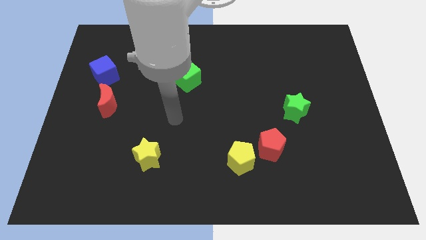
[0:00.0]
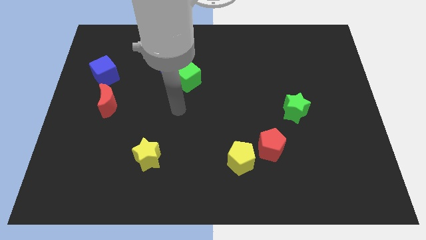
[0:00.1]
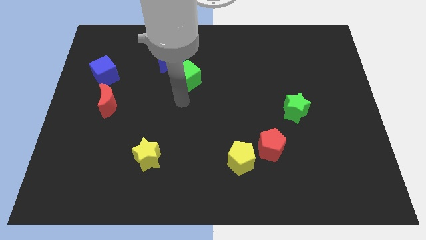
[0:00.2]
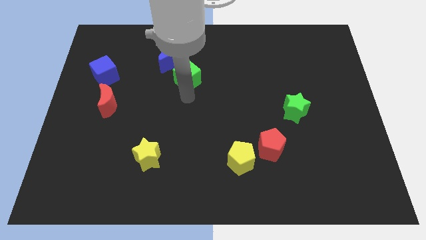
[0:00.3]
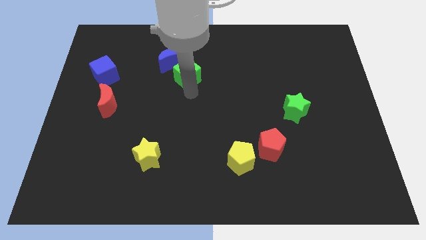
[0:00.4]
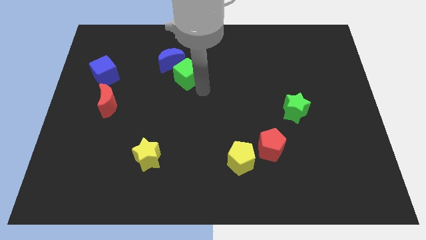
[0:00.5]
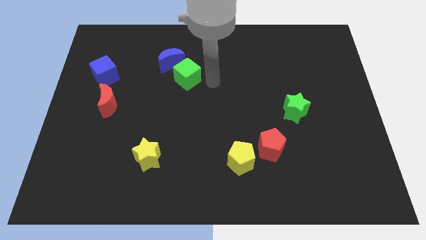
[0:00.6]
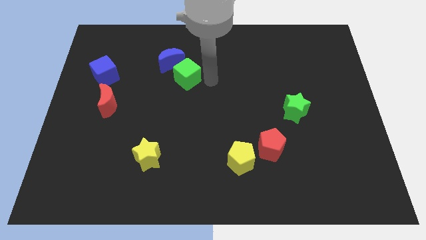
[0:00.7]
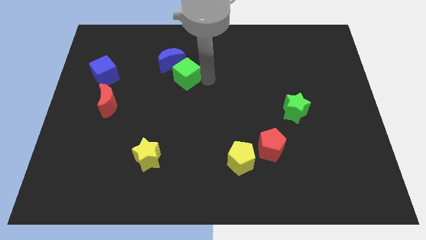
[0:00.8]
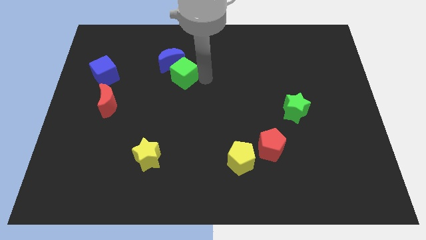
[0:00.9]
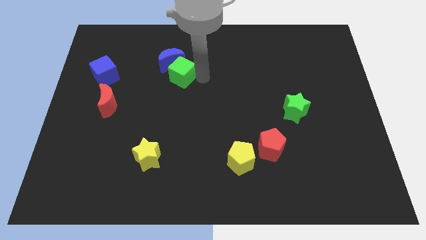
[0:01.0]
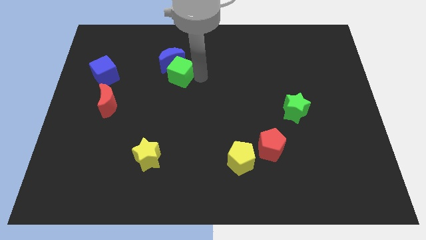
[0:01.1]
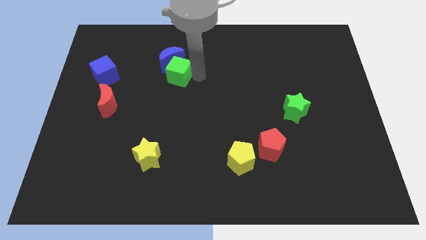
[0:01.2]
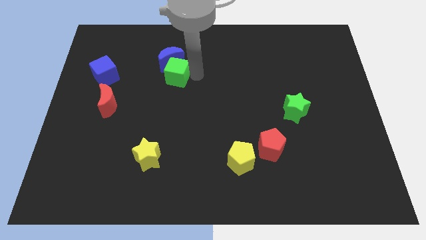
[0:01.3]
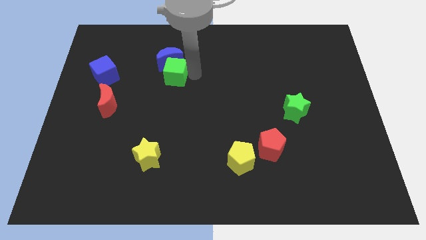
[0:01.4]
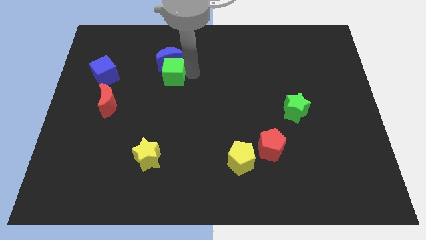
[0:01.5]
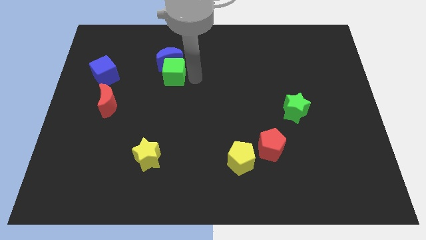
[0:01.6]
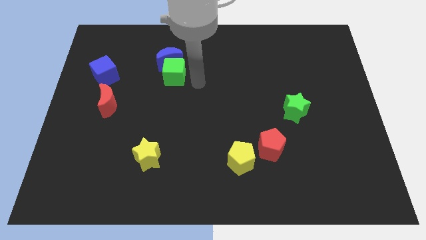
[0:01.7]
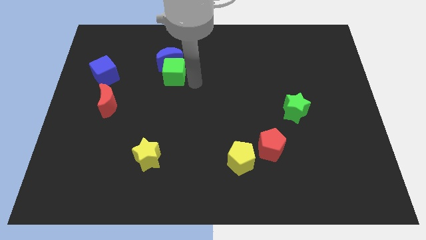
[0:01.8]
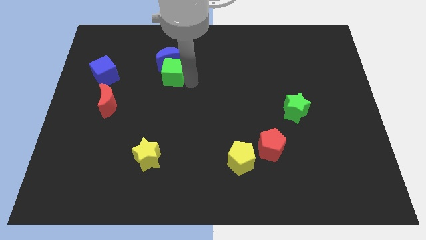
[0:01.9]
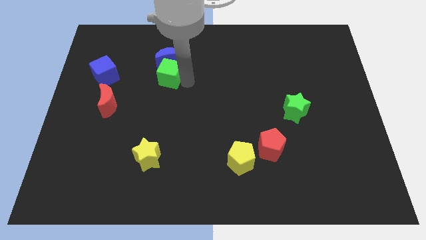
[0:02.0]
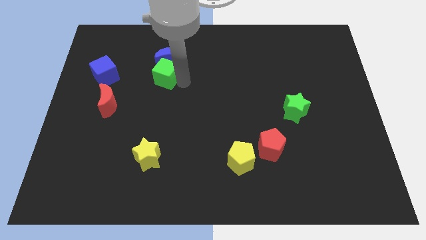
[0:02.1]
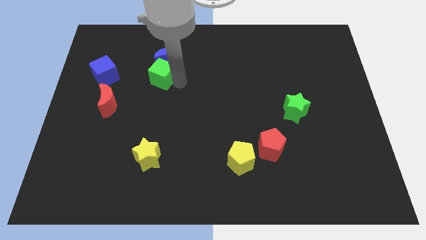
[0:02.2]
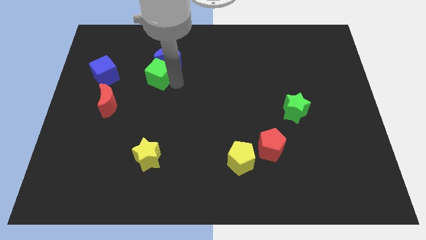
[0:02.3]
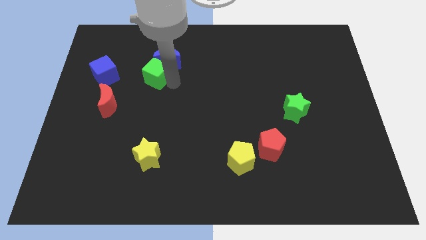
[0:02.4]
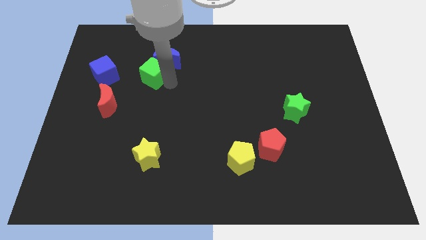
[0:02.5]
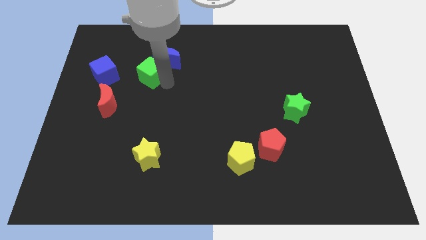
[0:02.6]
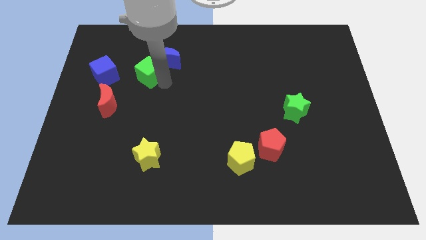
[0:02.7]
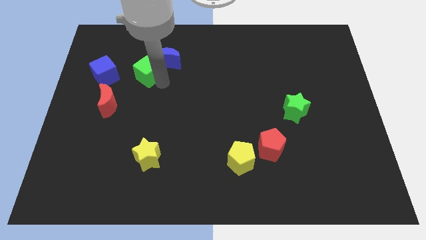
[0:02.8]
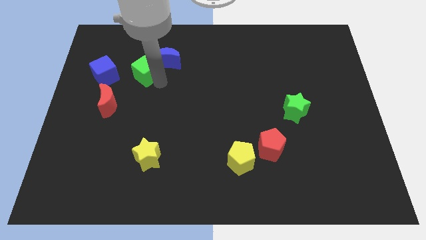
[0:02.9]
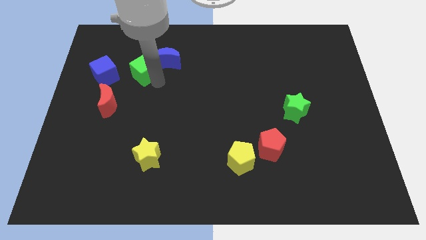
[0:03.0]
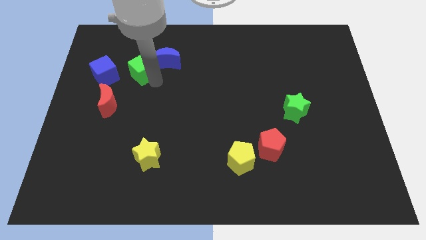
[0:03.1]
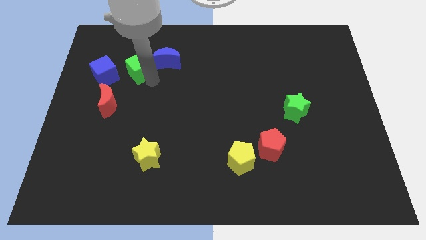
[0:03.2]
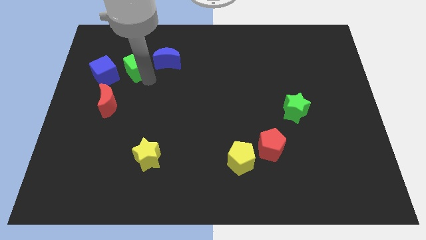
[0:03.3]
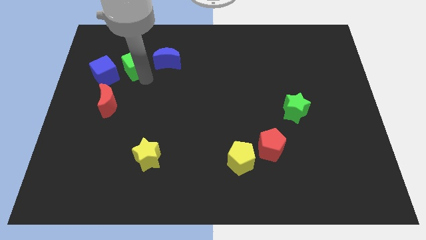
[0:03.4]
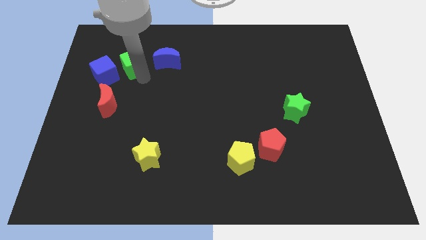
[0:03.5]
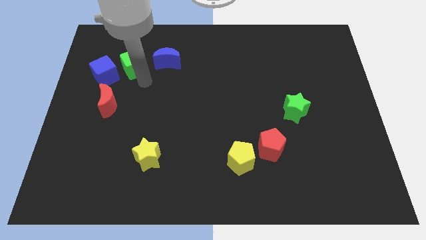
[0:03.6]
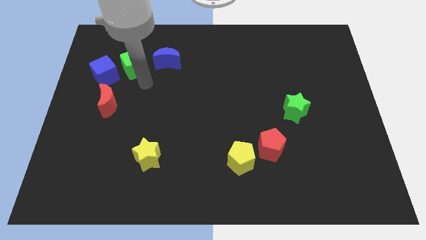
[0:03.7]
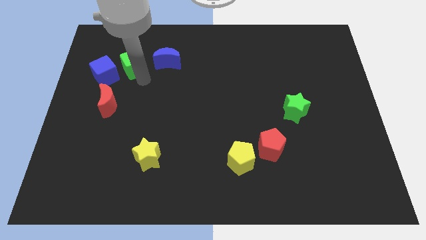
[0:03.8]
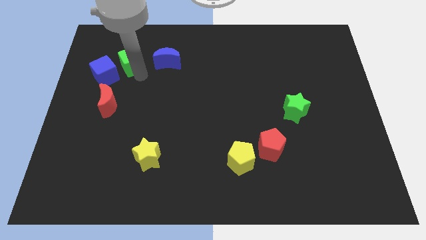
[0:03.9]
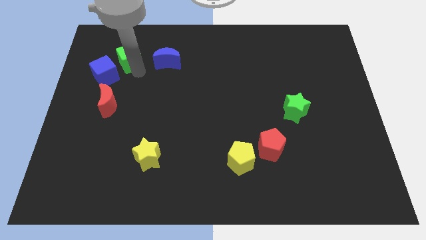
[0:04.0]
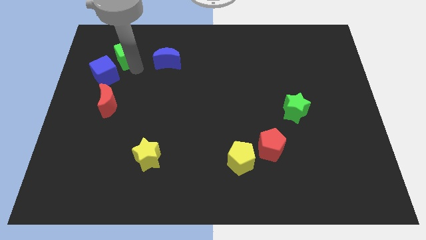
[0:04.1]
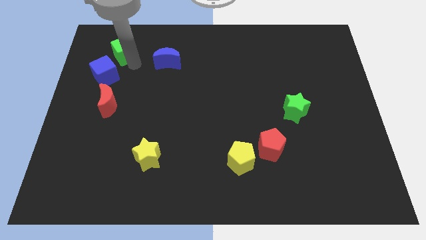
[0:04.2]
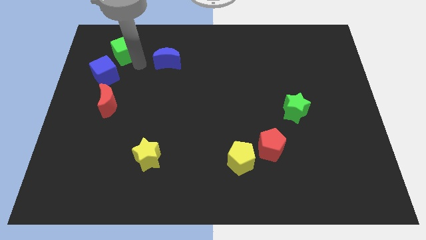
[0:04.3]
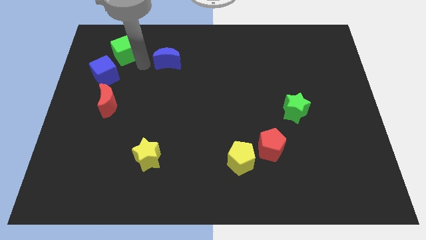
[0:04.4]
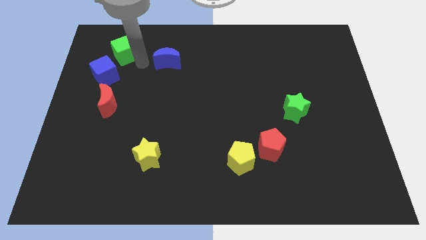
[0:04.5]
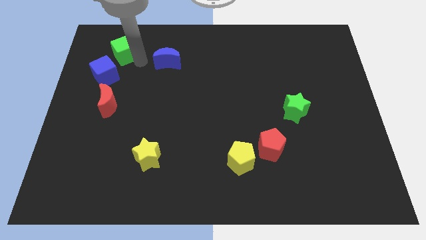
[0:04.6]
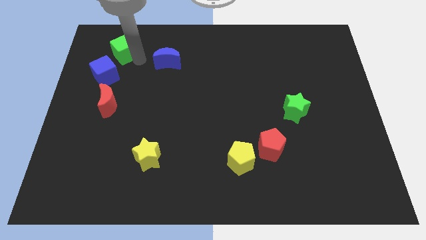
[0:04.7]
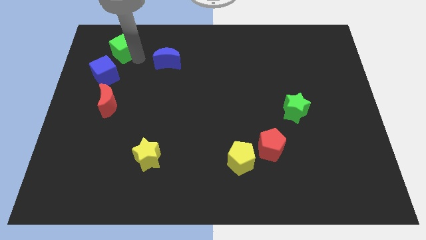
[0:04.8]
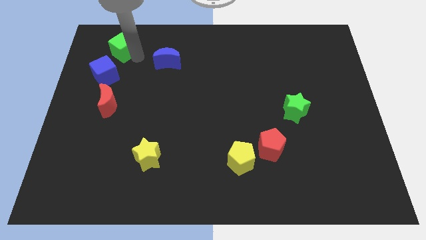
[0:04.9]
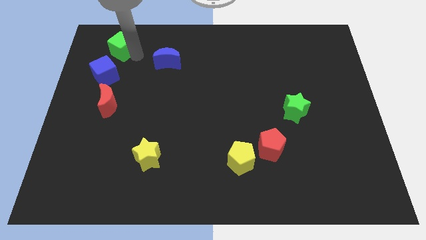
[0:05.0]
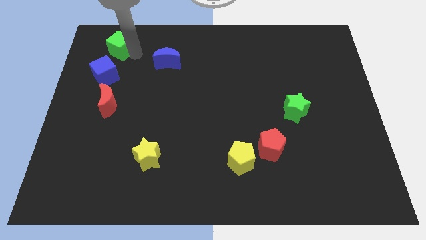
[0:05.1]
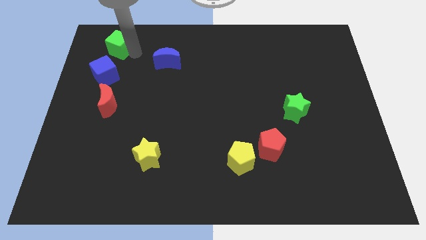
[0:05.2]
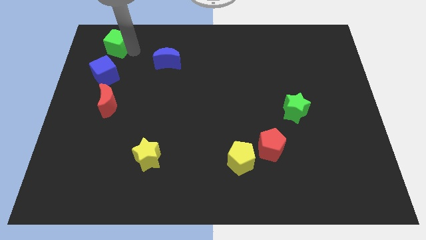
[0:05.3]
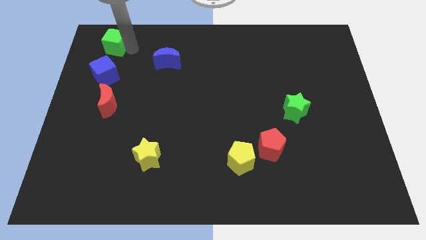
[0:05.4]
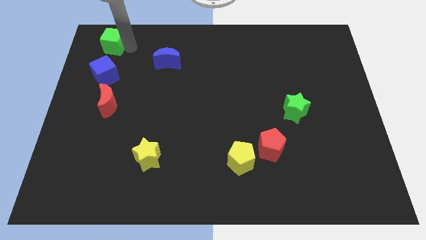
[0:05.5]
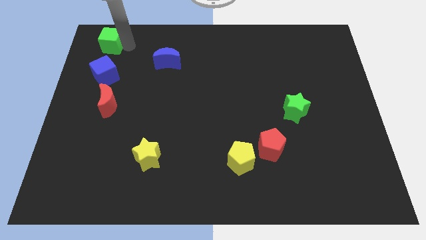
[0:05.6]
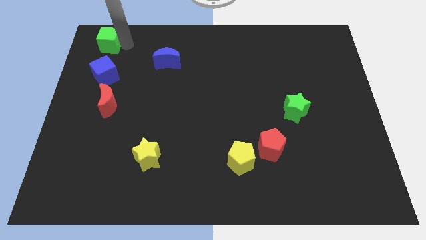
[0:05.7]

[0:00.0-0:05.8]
push the green cube to the top left corner
